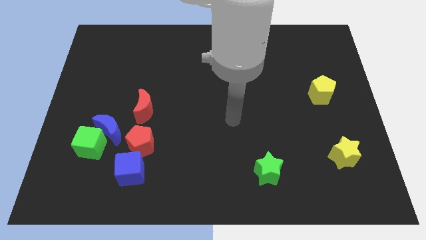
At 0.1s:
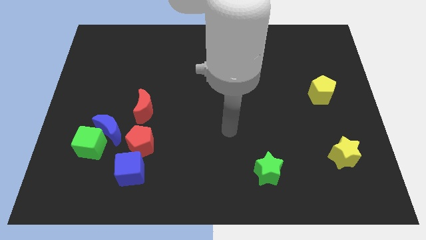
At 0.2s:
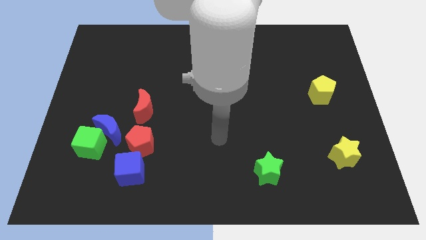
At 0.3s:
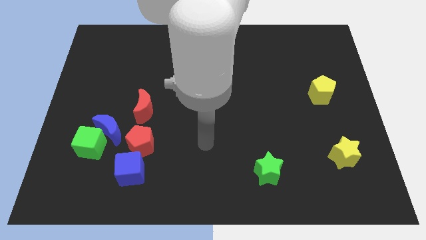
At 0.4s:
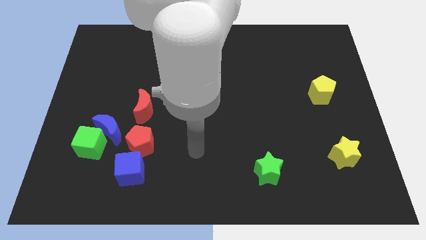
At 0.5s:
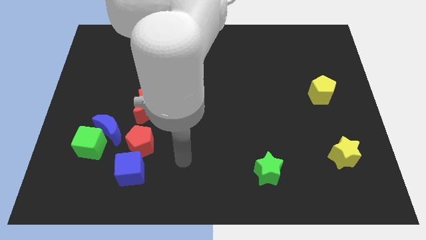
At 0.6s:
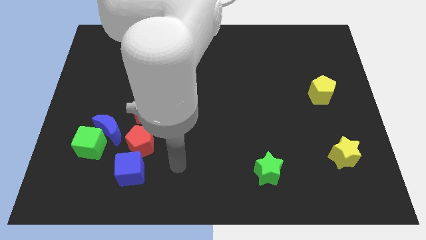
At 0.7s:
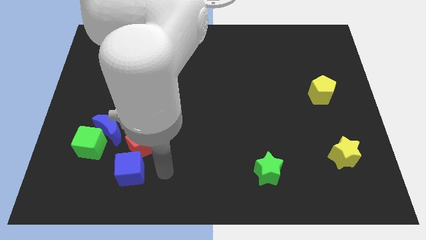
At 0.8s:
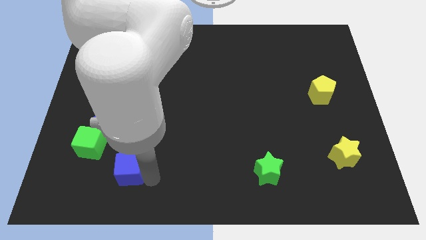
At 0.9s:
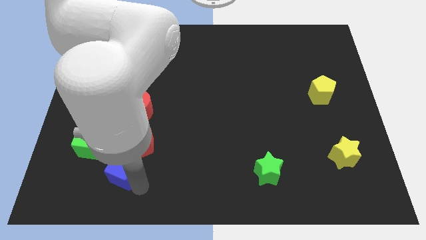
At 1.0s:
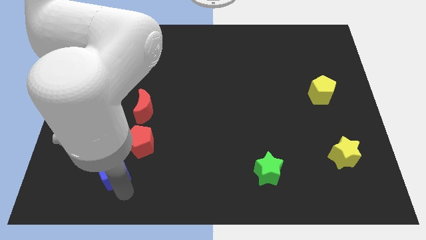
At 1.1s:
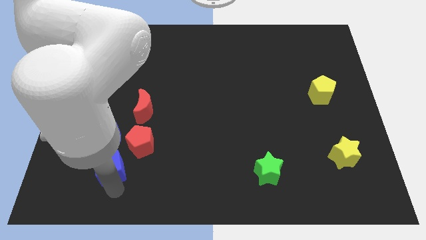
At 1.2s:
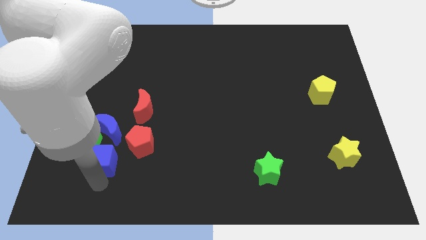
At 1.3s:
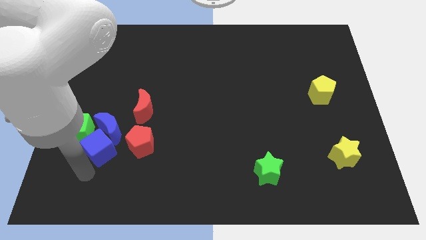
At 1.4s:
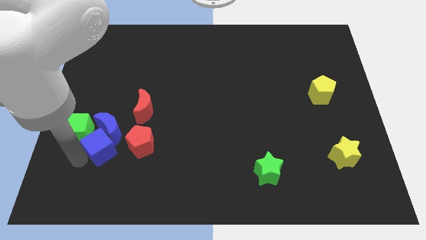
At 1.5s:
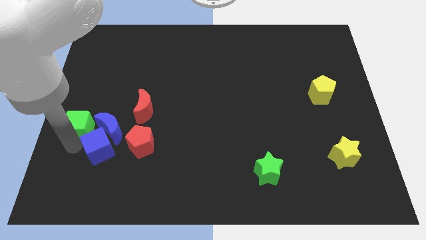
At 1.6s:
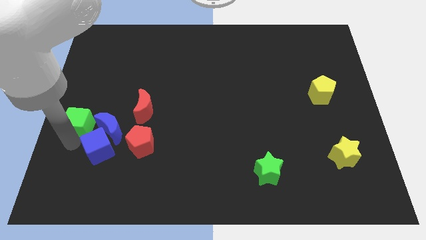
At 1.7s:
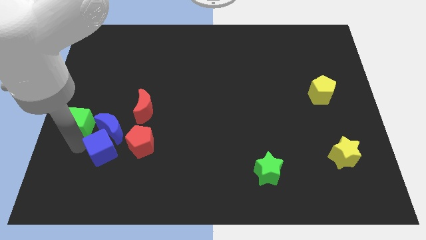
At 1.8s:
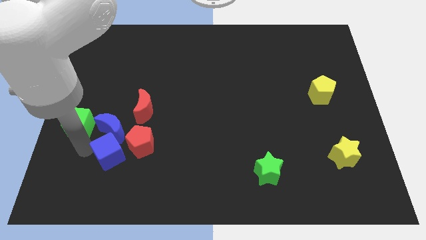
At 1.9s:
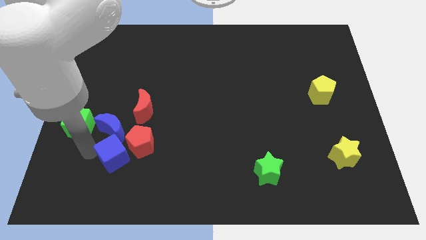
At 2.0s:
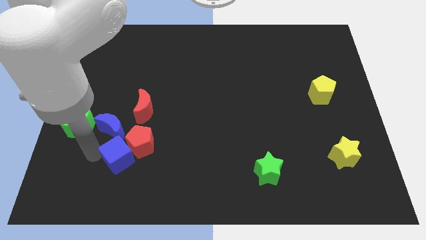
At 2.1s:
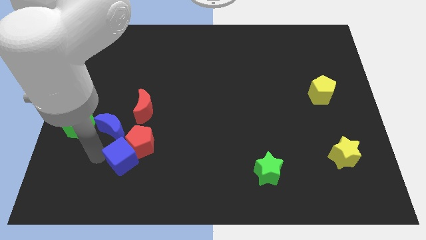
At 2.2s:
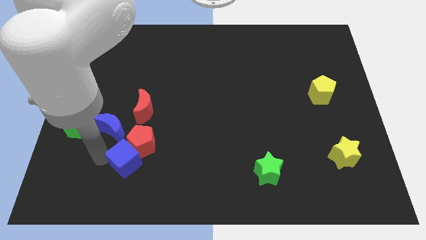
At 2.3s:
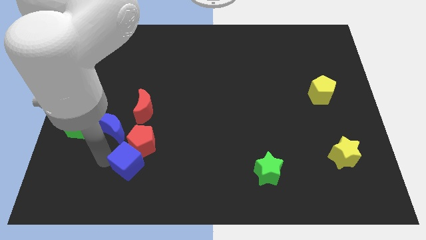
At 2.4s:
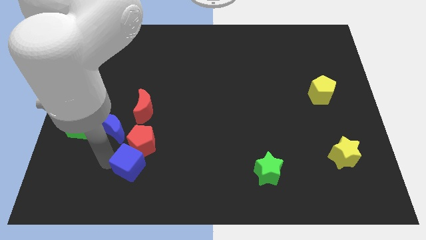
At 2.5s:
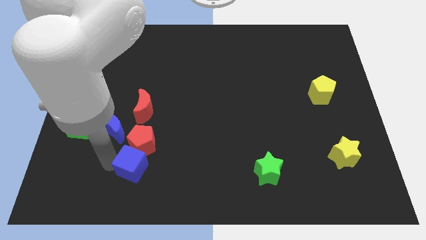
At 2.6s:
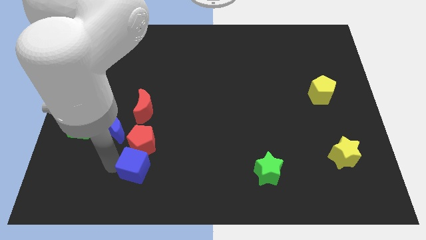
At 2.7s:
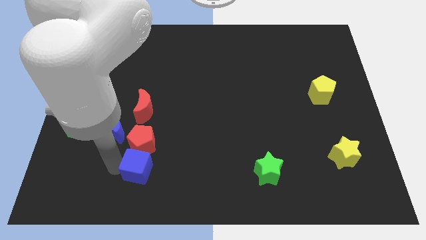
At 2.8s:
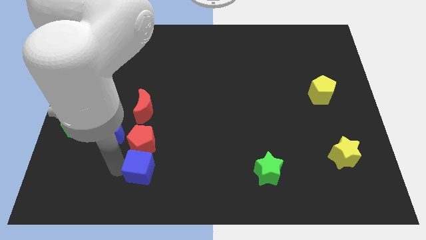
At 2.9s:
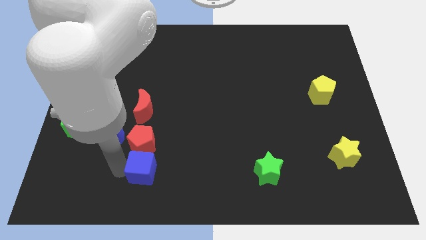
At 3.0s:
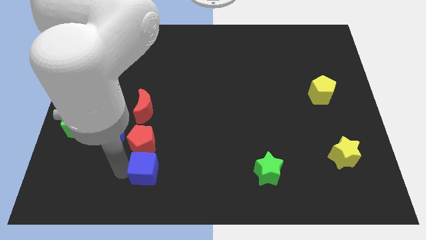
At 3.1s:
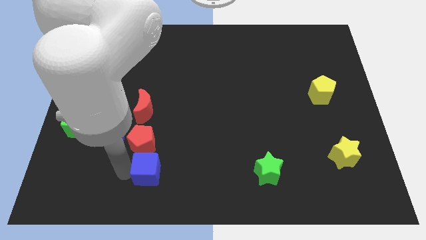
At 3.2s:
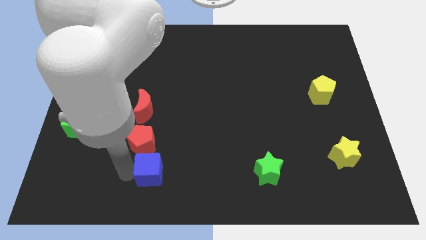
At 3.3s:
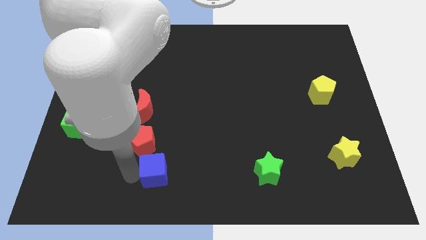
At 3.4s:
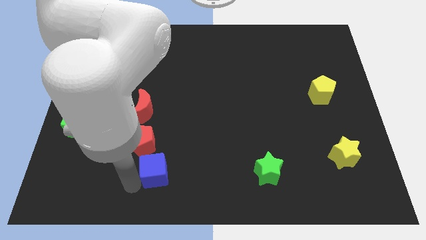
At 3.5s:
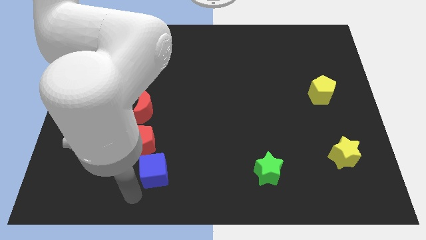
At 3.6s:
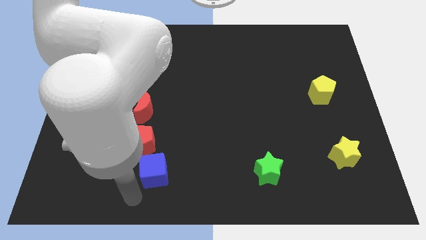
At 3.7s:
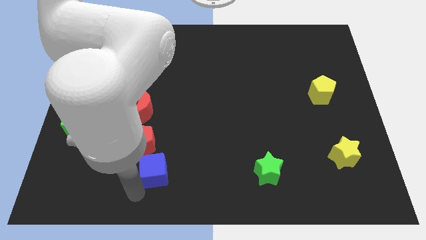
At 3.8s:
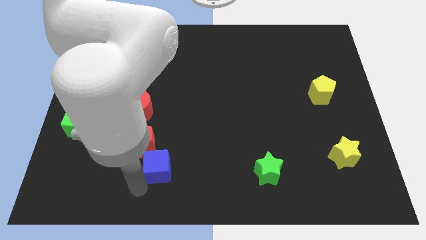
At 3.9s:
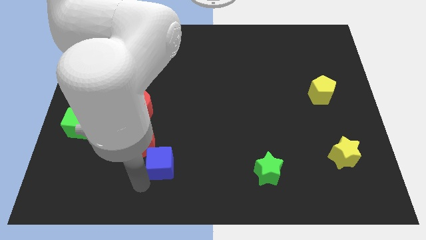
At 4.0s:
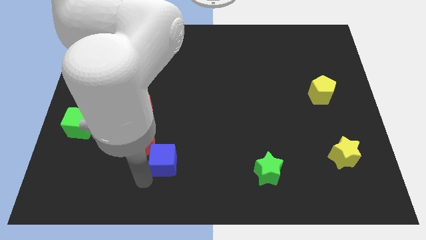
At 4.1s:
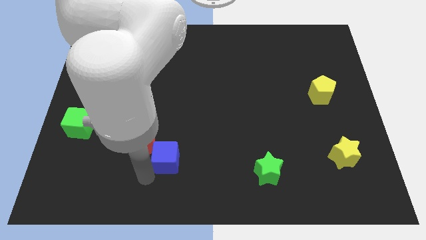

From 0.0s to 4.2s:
move the blue cube a bit diagonally upwards and right

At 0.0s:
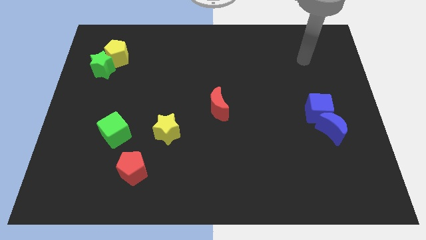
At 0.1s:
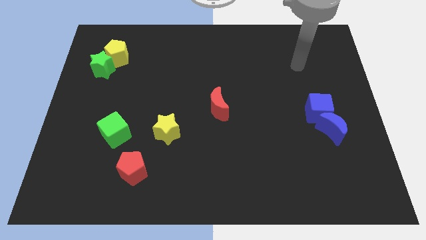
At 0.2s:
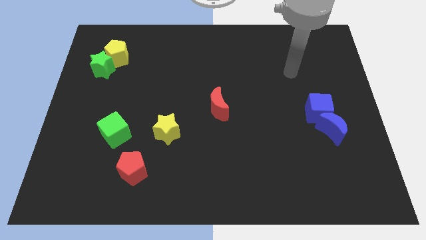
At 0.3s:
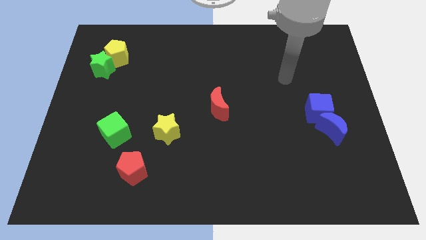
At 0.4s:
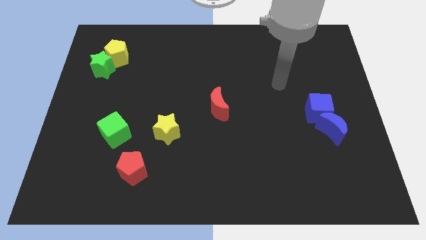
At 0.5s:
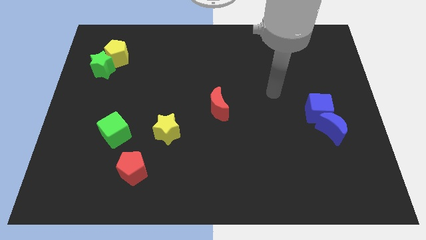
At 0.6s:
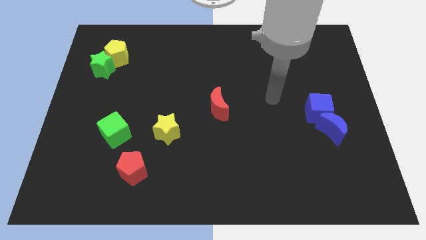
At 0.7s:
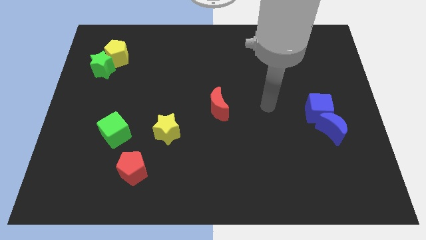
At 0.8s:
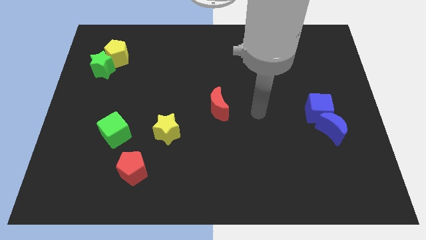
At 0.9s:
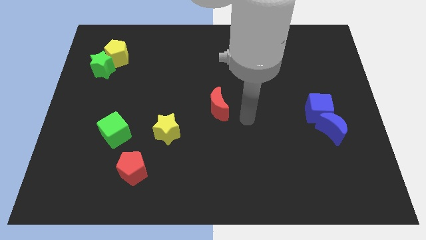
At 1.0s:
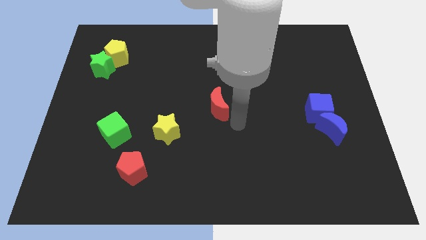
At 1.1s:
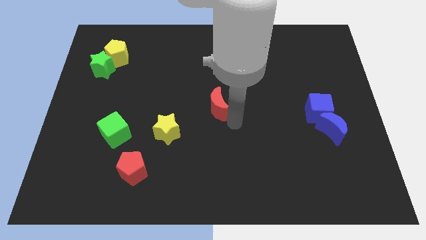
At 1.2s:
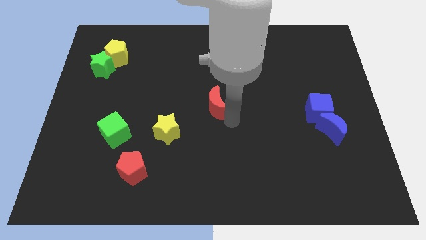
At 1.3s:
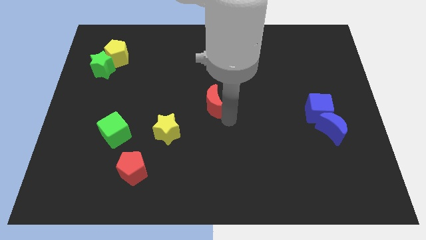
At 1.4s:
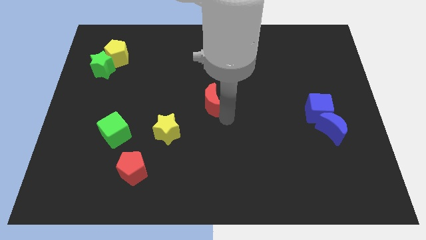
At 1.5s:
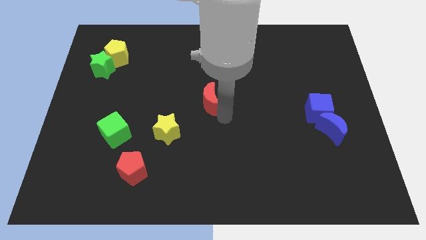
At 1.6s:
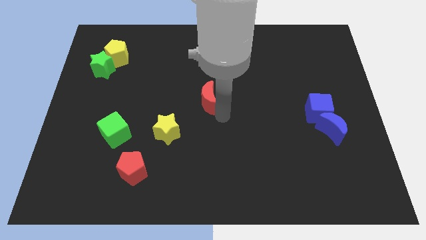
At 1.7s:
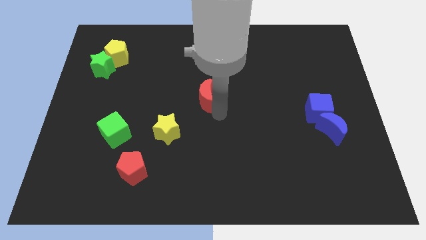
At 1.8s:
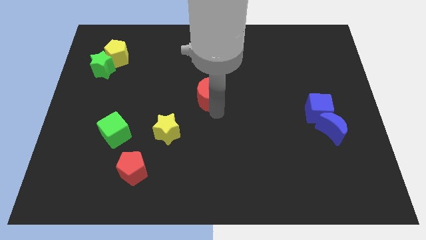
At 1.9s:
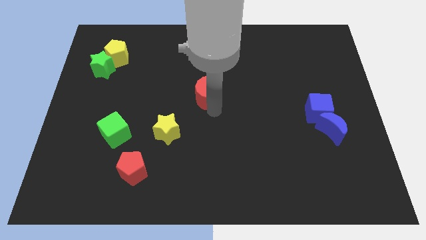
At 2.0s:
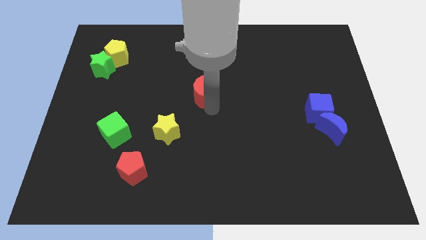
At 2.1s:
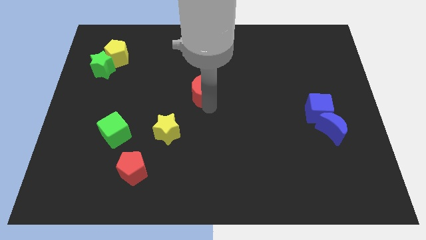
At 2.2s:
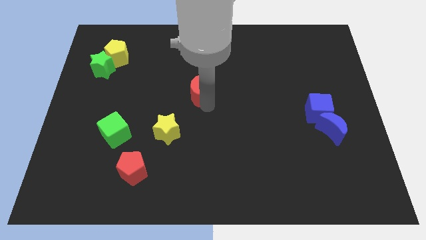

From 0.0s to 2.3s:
move the red moon a bit up and left

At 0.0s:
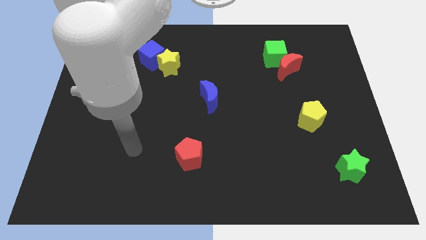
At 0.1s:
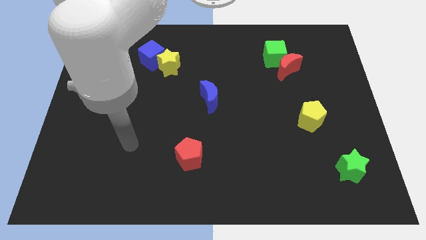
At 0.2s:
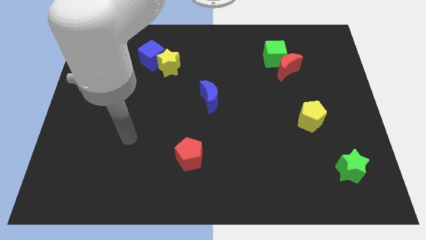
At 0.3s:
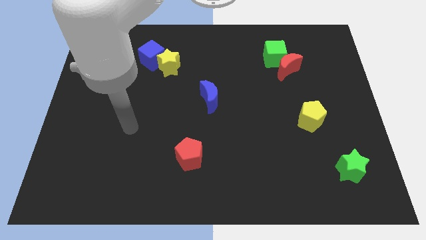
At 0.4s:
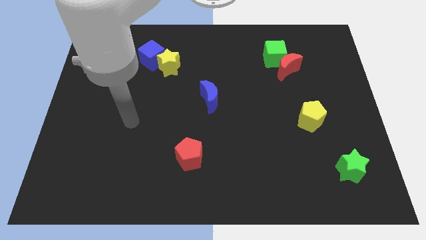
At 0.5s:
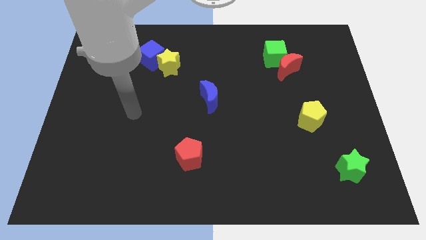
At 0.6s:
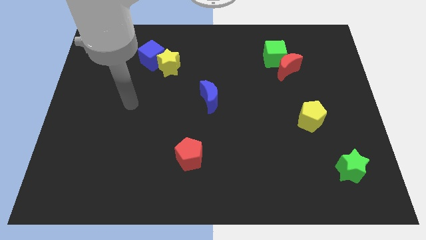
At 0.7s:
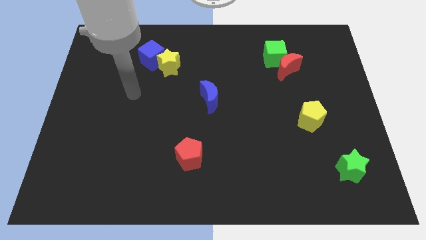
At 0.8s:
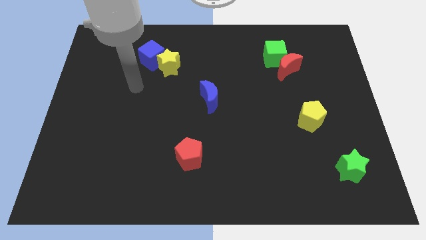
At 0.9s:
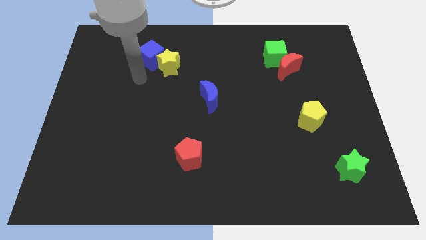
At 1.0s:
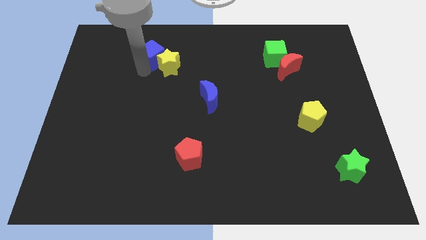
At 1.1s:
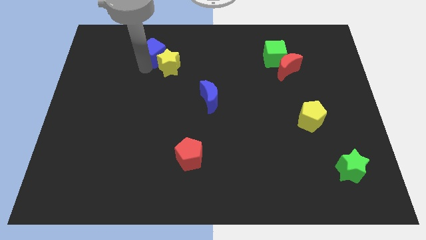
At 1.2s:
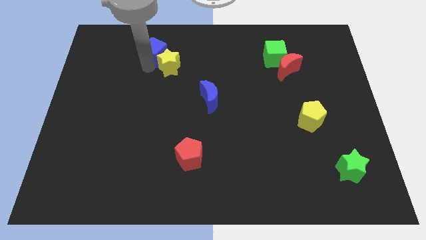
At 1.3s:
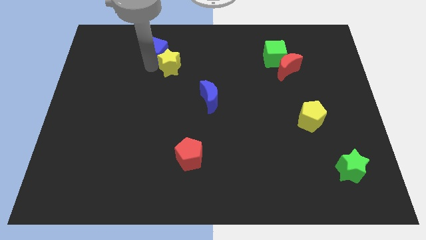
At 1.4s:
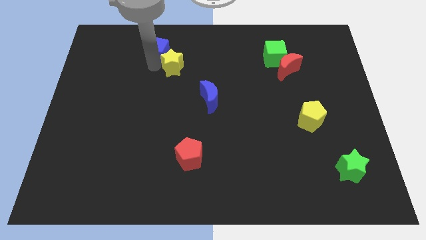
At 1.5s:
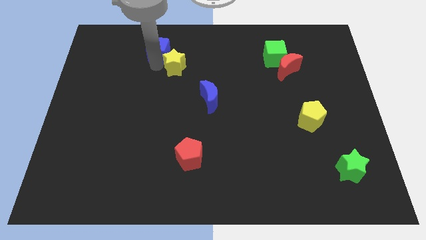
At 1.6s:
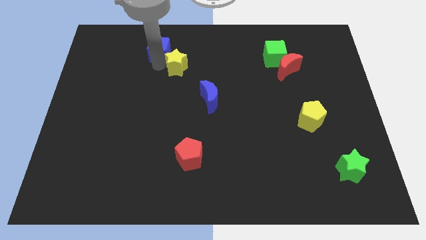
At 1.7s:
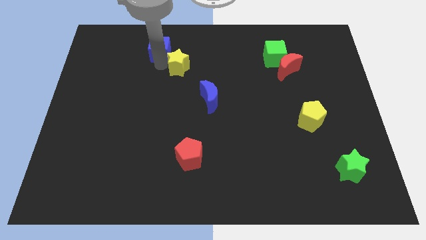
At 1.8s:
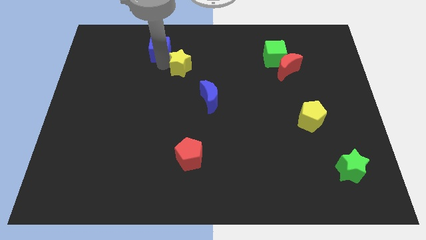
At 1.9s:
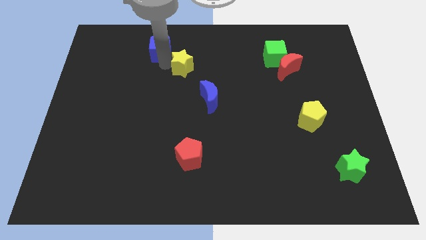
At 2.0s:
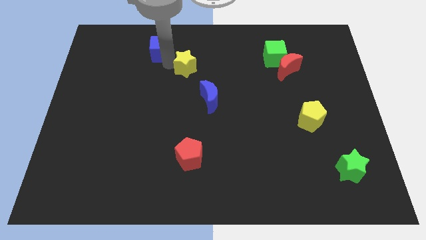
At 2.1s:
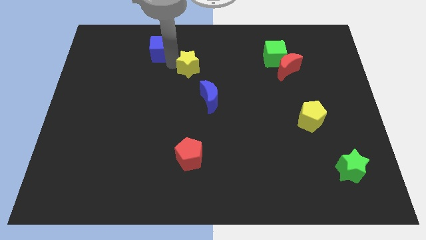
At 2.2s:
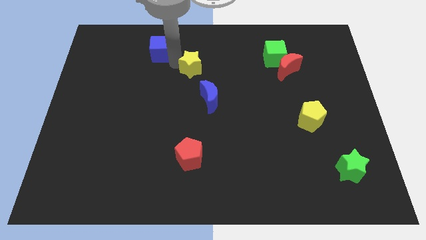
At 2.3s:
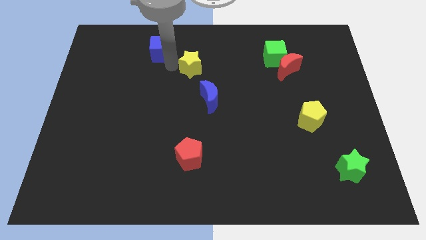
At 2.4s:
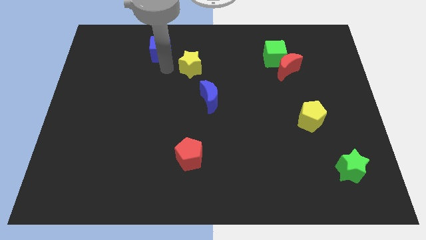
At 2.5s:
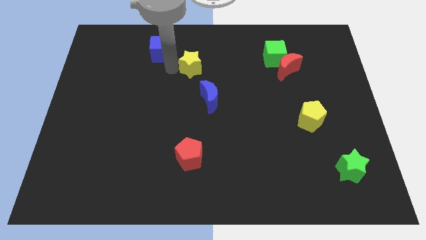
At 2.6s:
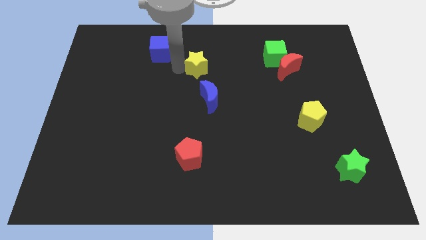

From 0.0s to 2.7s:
push the yellow star slightly right
